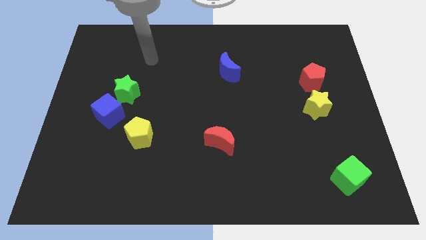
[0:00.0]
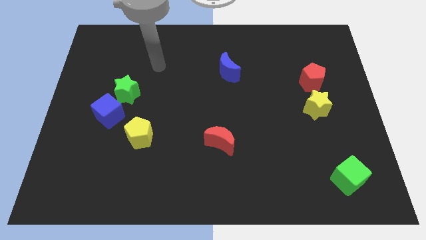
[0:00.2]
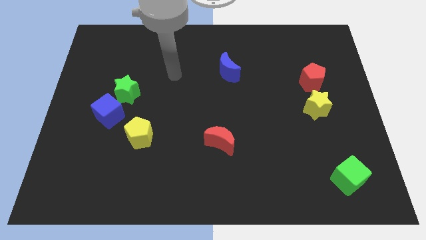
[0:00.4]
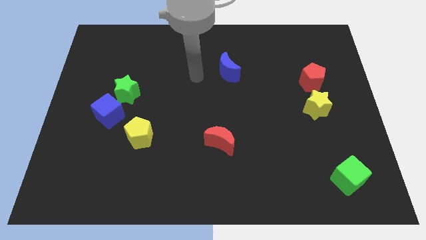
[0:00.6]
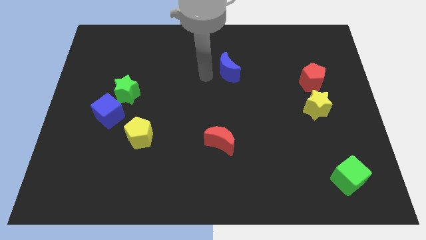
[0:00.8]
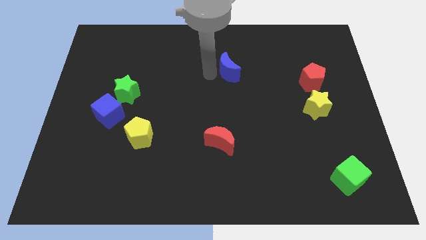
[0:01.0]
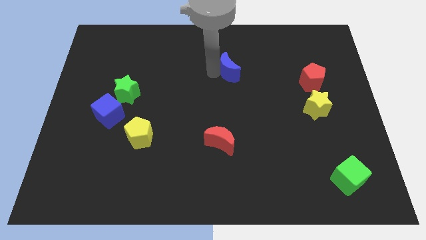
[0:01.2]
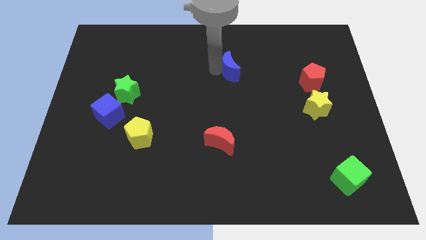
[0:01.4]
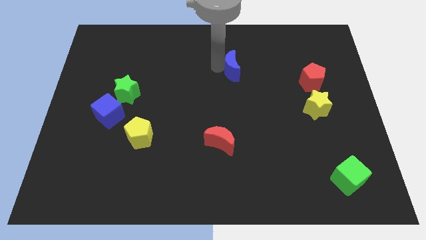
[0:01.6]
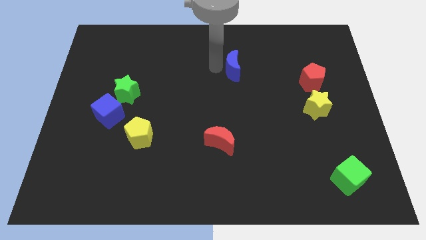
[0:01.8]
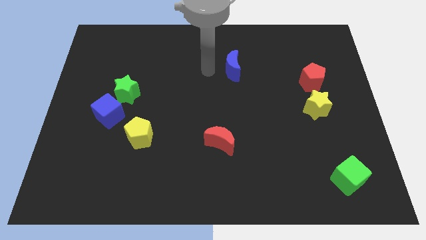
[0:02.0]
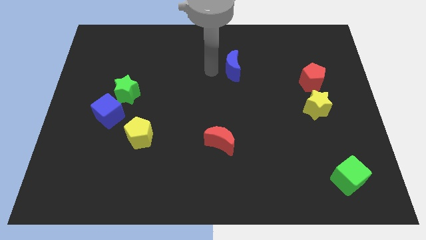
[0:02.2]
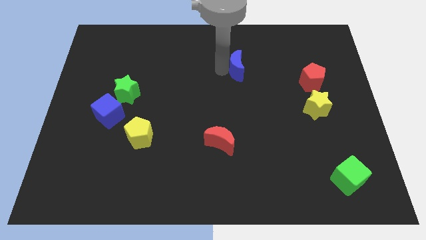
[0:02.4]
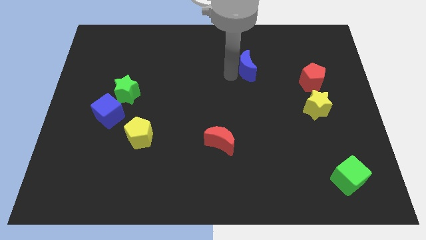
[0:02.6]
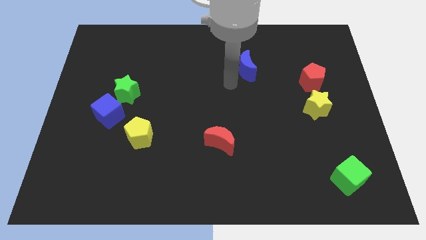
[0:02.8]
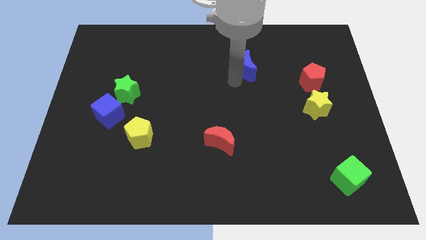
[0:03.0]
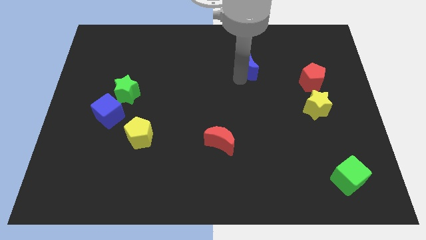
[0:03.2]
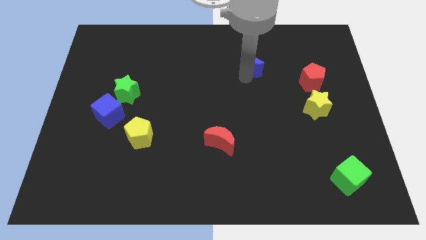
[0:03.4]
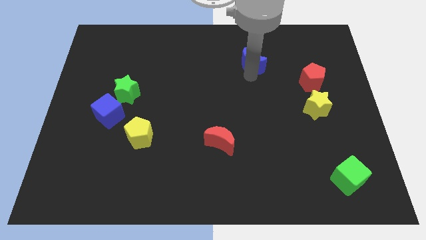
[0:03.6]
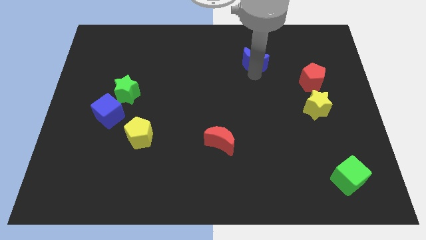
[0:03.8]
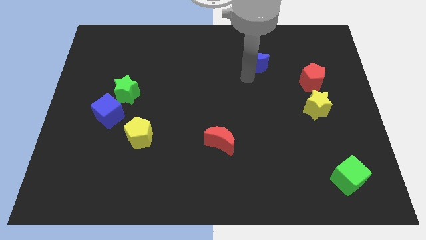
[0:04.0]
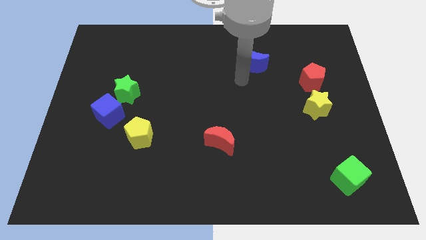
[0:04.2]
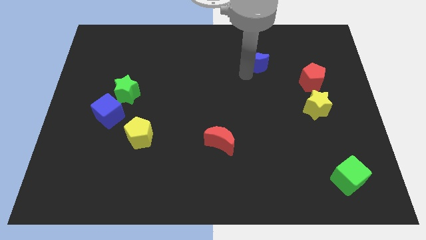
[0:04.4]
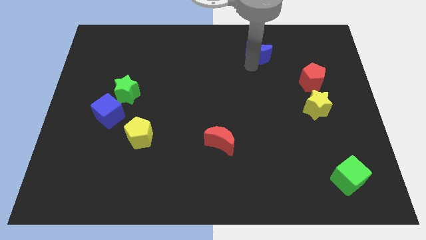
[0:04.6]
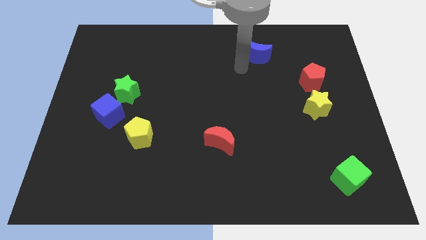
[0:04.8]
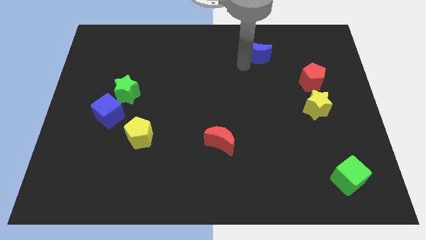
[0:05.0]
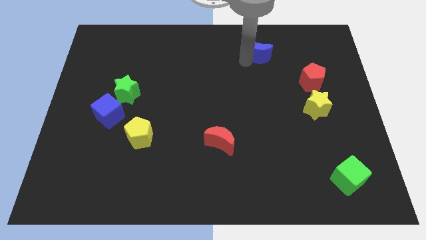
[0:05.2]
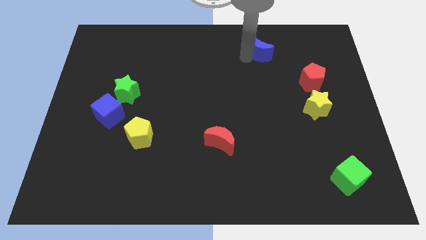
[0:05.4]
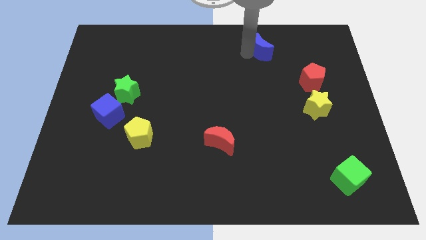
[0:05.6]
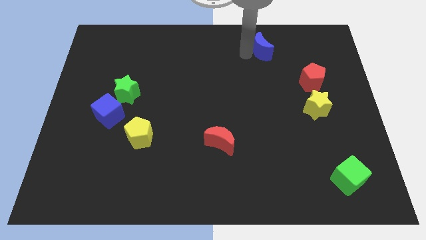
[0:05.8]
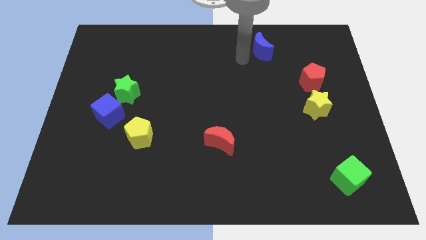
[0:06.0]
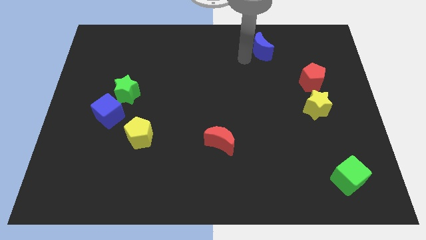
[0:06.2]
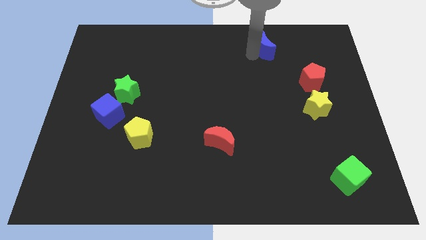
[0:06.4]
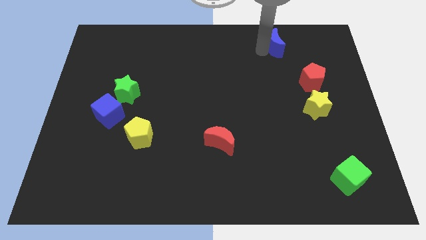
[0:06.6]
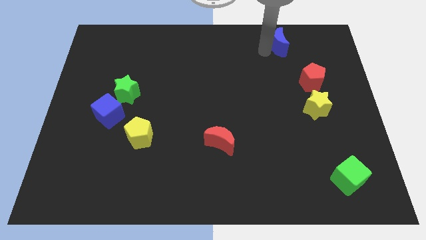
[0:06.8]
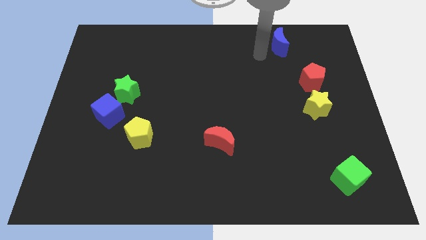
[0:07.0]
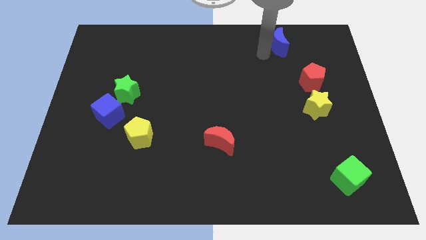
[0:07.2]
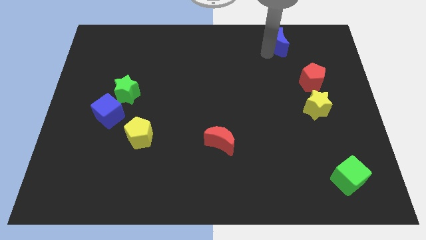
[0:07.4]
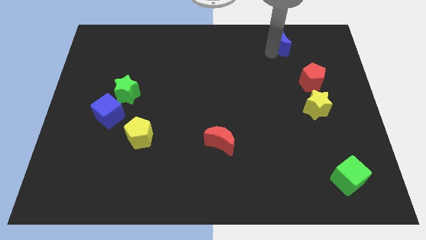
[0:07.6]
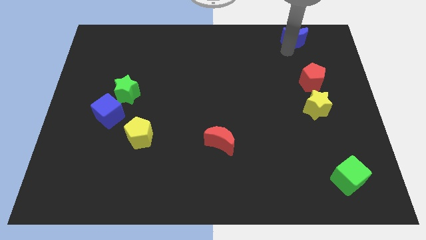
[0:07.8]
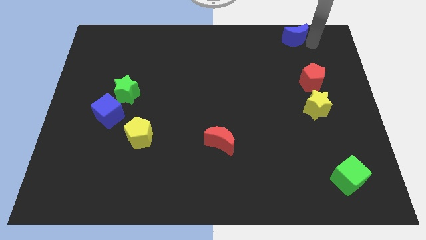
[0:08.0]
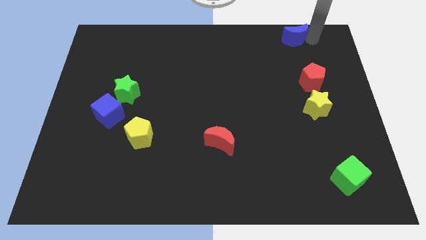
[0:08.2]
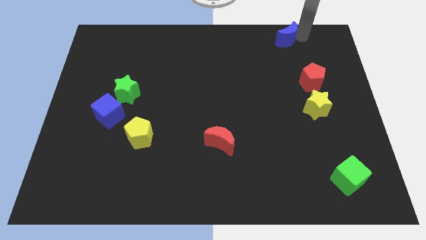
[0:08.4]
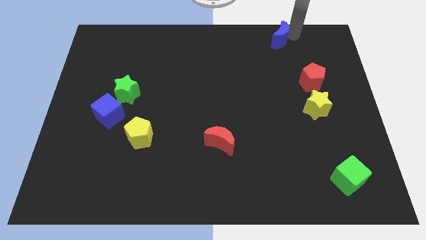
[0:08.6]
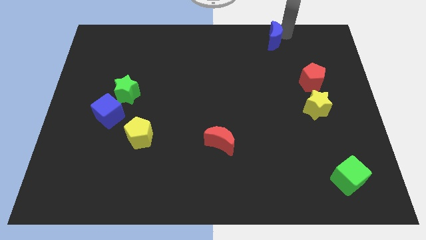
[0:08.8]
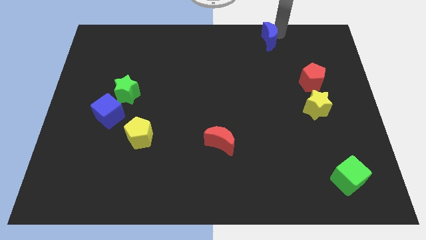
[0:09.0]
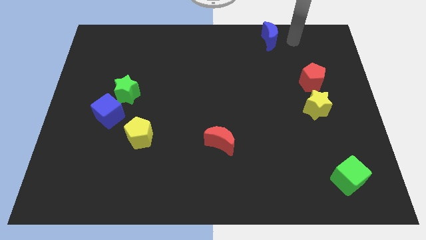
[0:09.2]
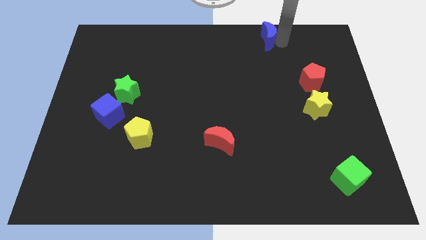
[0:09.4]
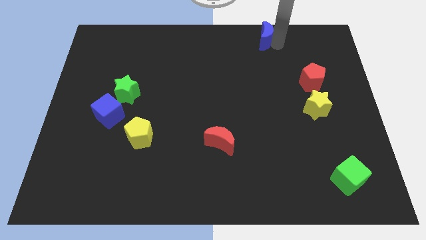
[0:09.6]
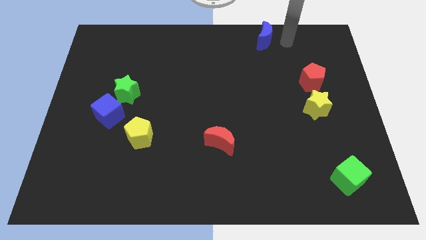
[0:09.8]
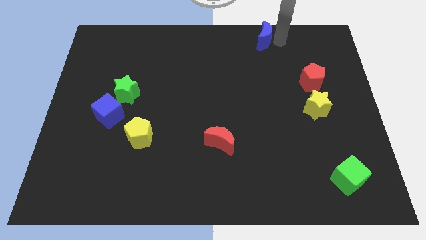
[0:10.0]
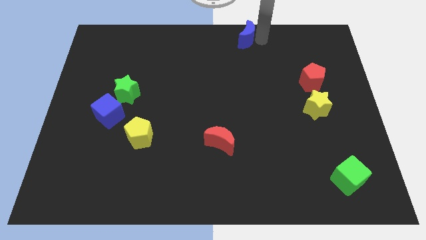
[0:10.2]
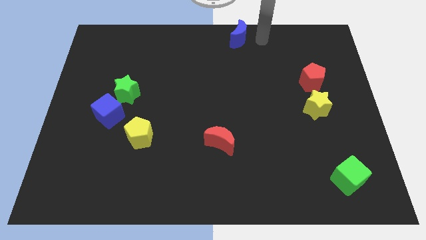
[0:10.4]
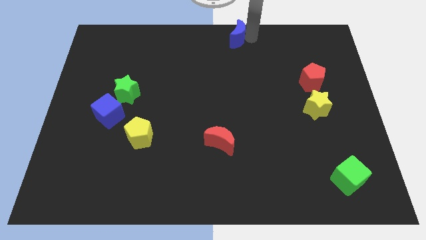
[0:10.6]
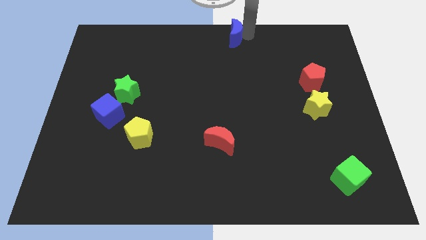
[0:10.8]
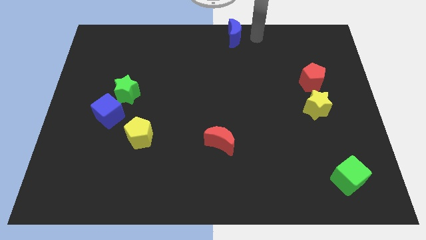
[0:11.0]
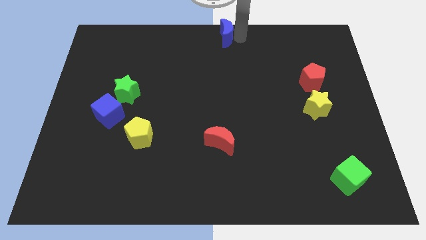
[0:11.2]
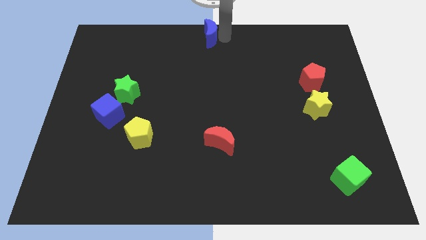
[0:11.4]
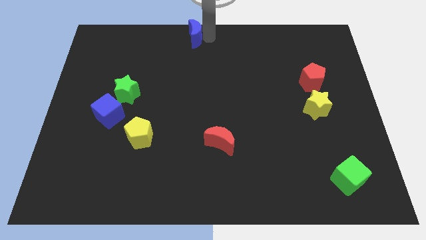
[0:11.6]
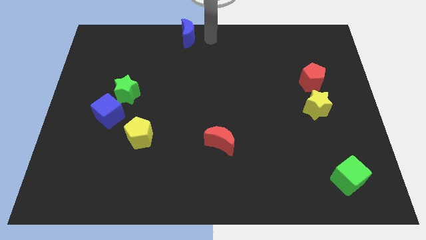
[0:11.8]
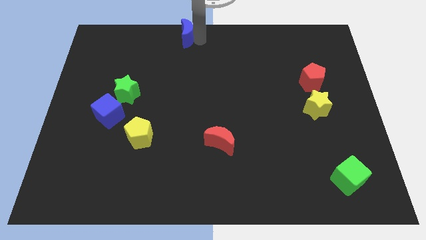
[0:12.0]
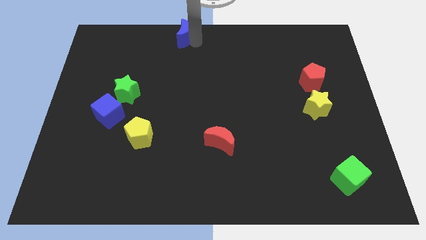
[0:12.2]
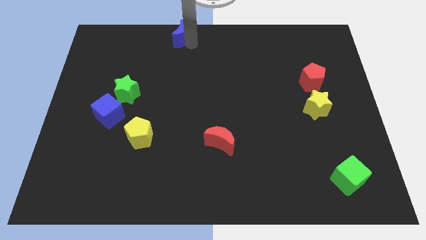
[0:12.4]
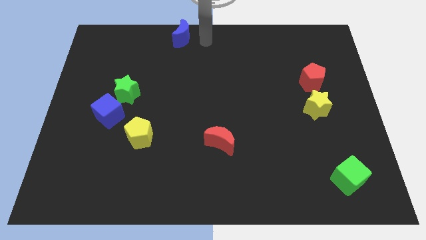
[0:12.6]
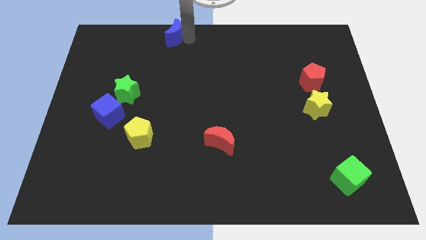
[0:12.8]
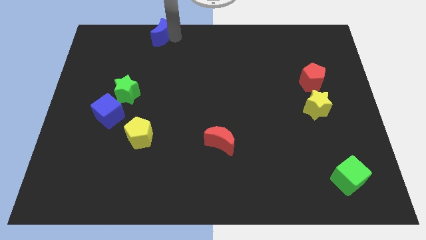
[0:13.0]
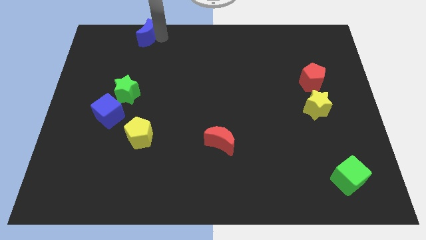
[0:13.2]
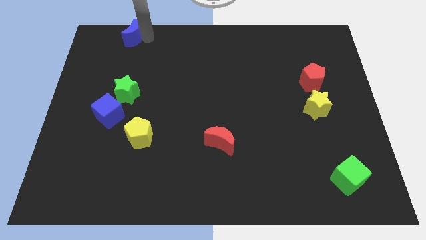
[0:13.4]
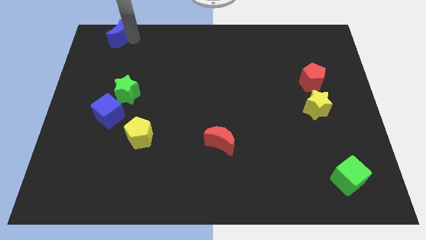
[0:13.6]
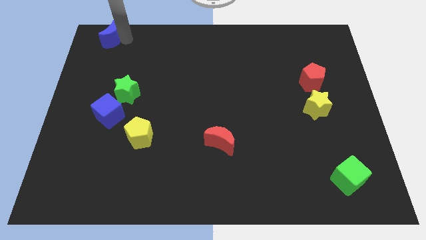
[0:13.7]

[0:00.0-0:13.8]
move the blue moon to the top left of the board
